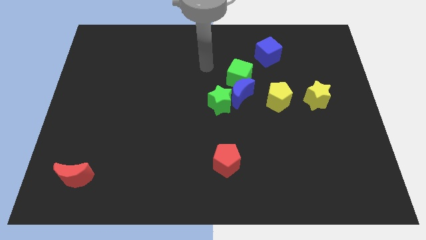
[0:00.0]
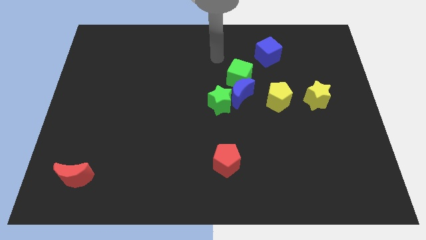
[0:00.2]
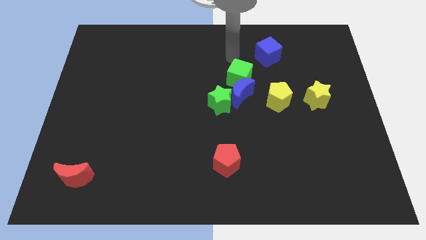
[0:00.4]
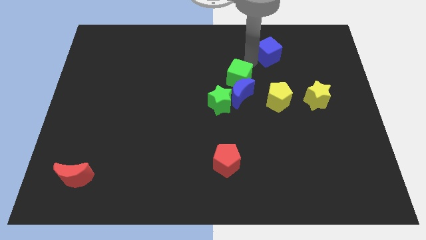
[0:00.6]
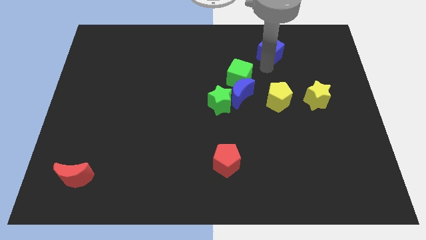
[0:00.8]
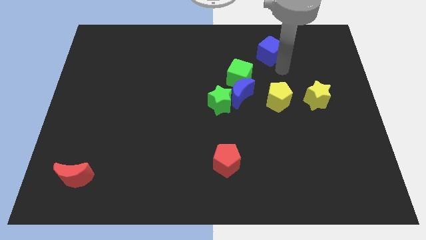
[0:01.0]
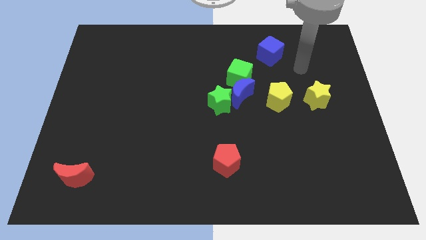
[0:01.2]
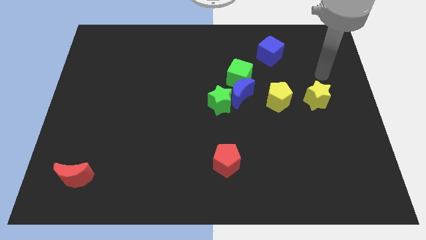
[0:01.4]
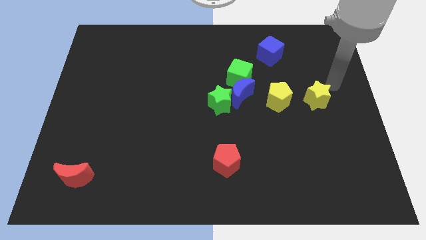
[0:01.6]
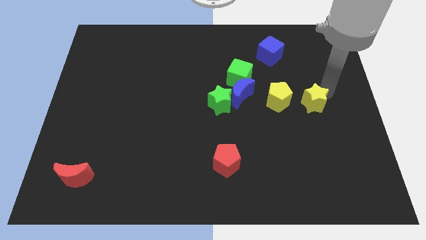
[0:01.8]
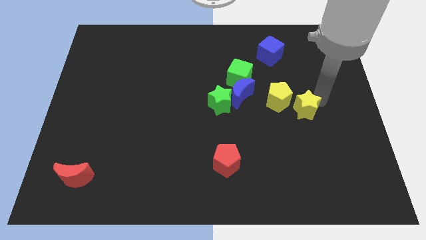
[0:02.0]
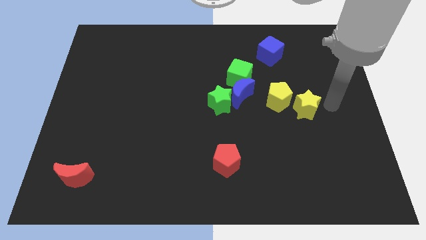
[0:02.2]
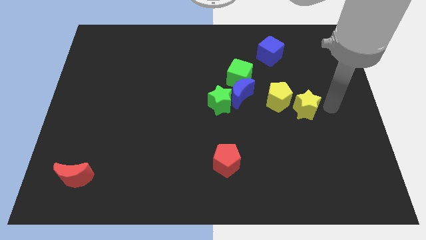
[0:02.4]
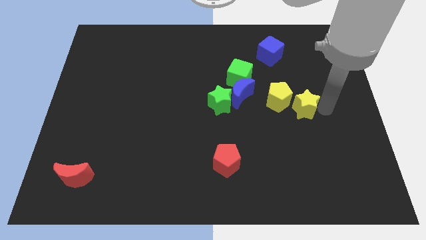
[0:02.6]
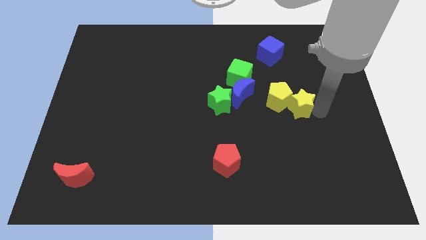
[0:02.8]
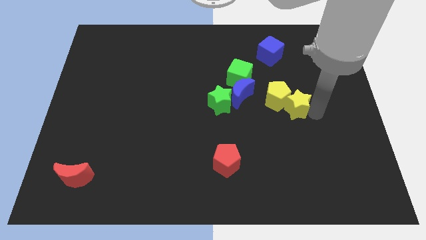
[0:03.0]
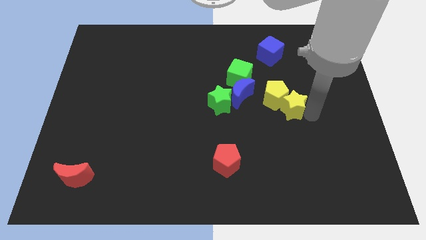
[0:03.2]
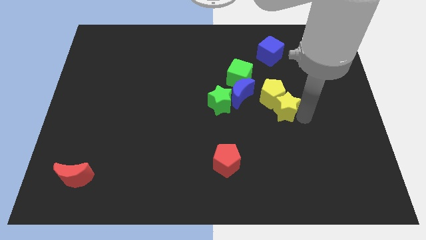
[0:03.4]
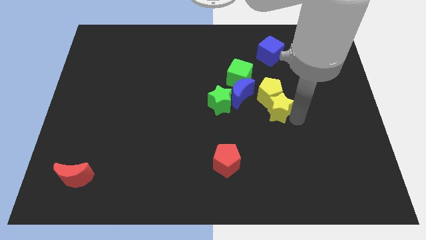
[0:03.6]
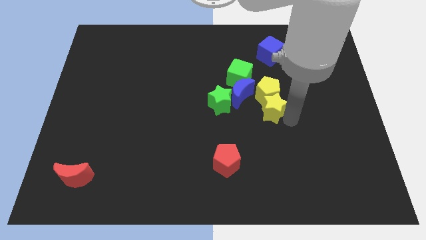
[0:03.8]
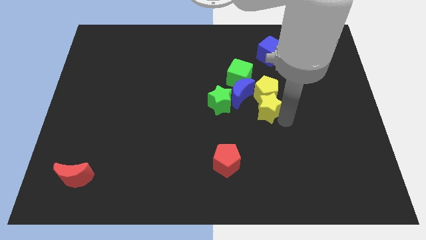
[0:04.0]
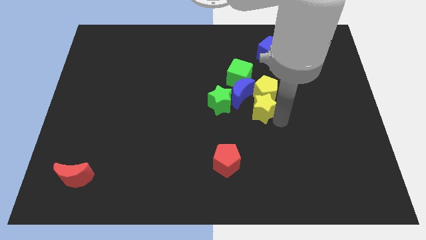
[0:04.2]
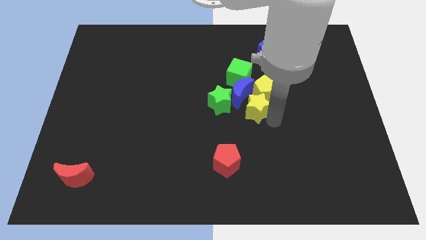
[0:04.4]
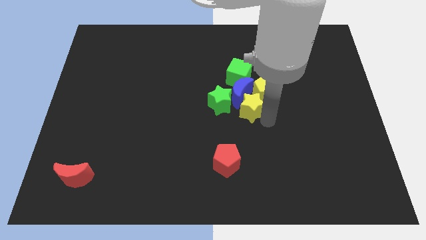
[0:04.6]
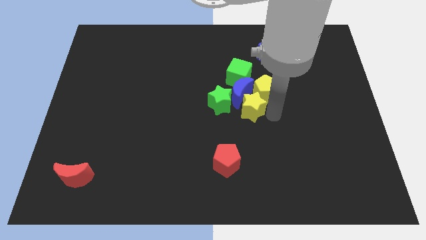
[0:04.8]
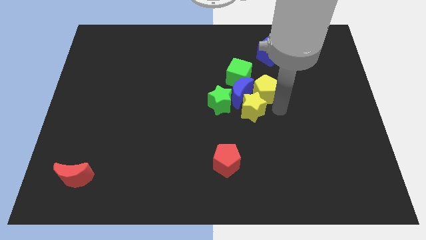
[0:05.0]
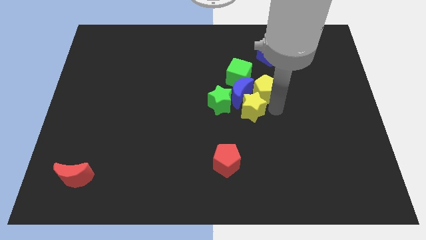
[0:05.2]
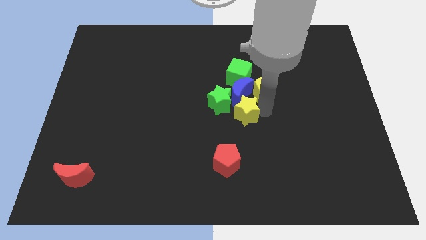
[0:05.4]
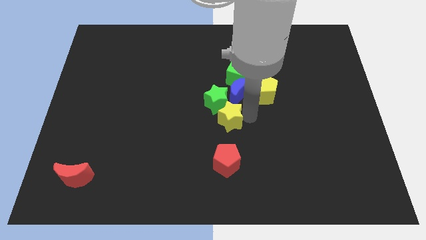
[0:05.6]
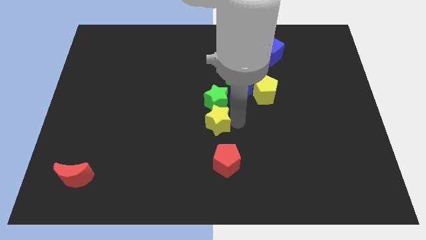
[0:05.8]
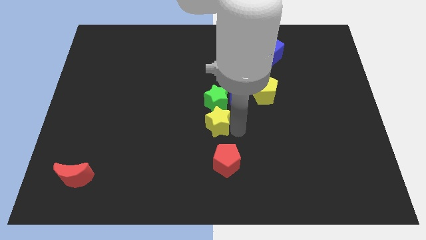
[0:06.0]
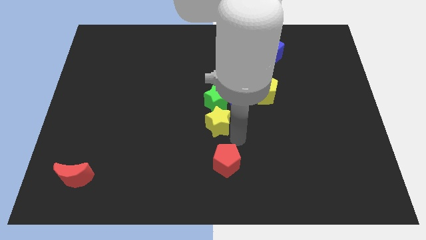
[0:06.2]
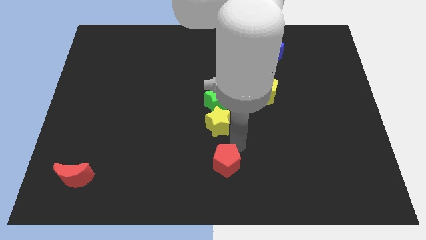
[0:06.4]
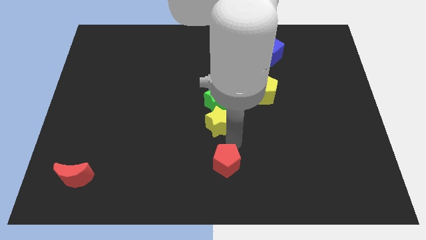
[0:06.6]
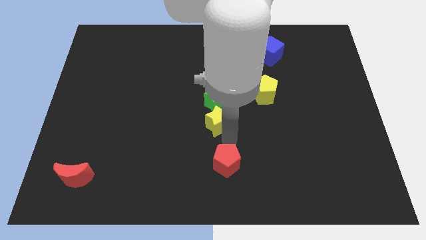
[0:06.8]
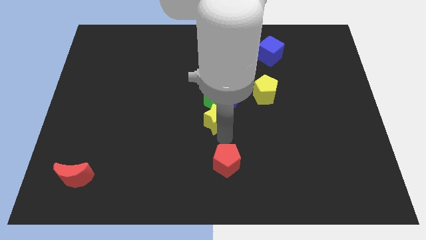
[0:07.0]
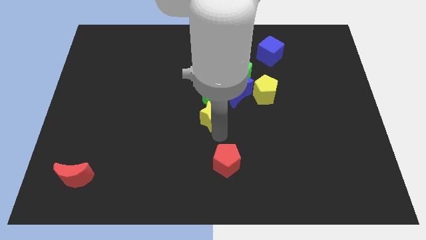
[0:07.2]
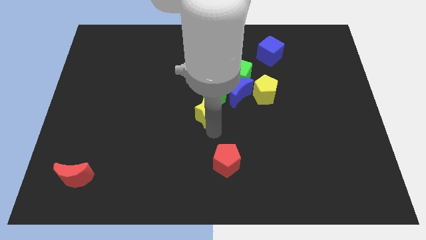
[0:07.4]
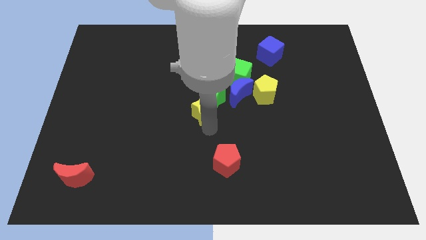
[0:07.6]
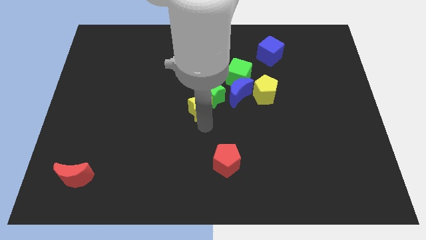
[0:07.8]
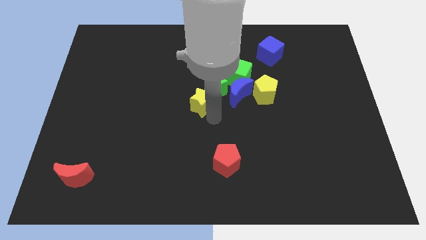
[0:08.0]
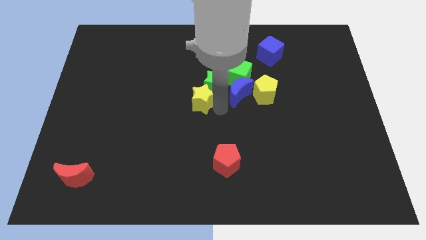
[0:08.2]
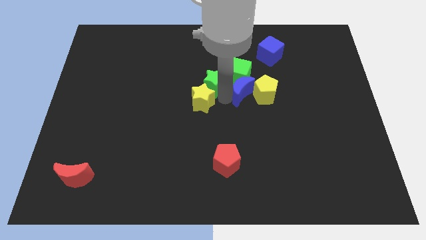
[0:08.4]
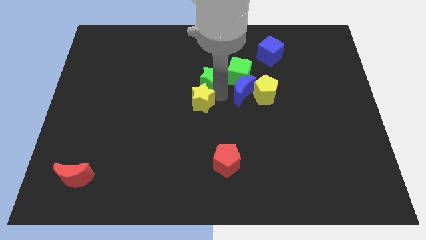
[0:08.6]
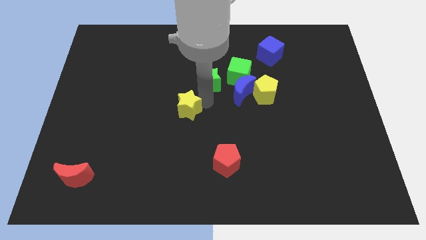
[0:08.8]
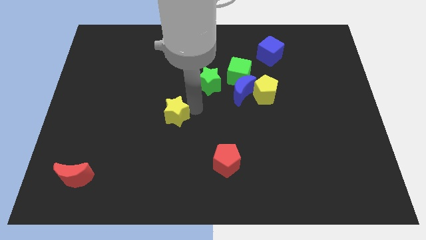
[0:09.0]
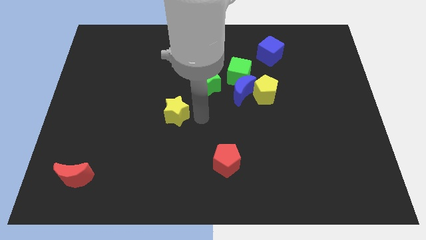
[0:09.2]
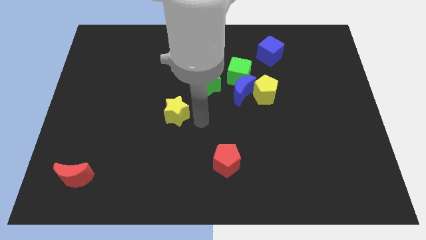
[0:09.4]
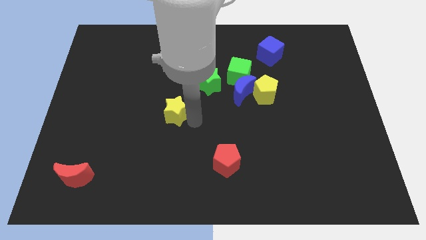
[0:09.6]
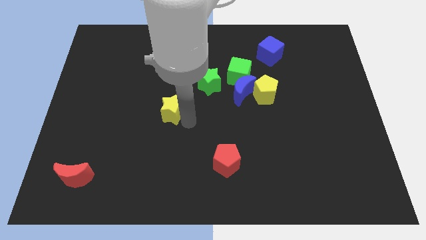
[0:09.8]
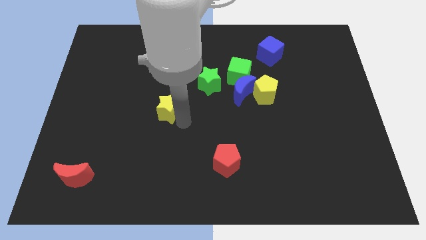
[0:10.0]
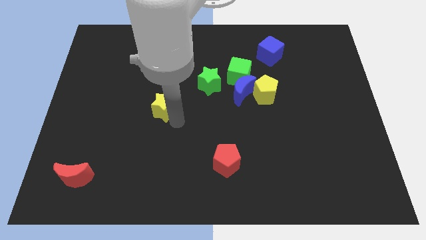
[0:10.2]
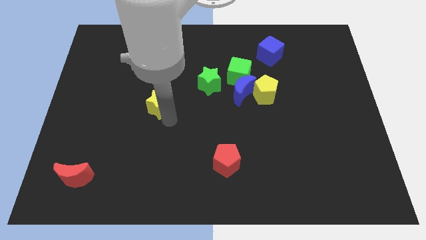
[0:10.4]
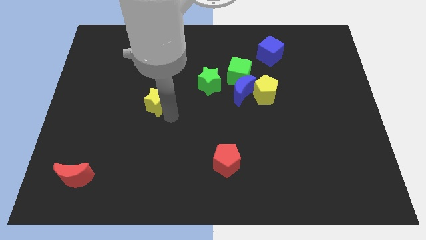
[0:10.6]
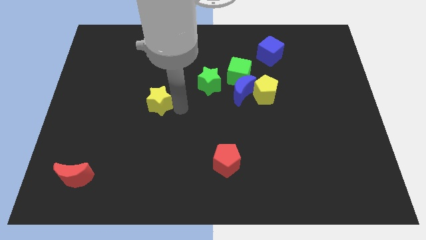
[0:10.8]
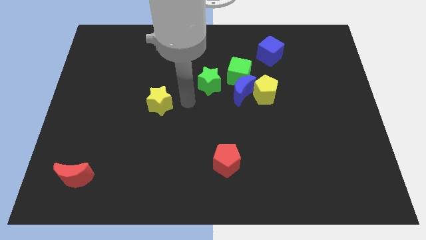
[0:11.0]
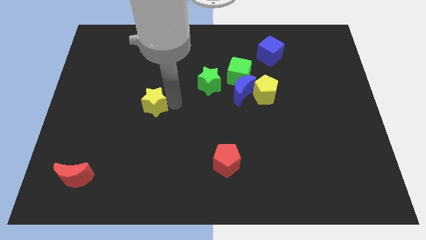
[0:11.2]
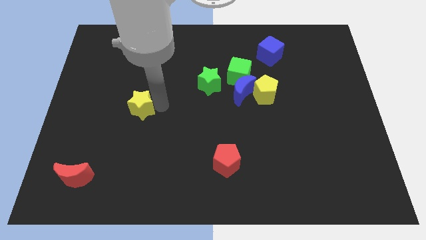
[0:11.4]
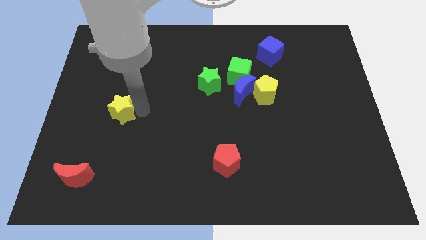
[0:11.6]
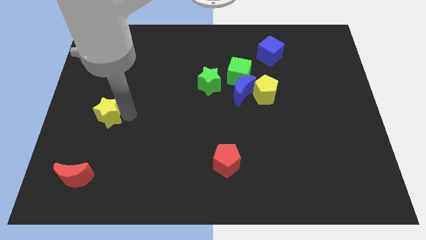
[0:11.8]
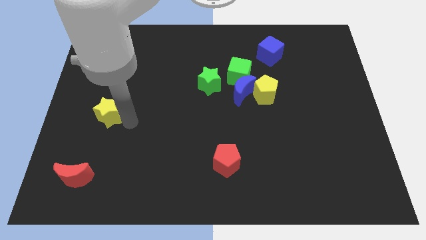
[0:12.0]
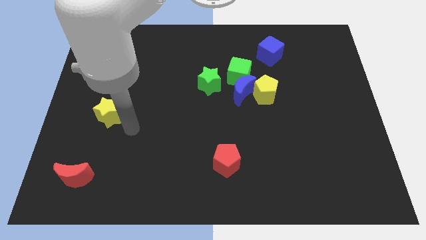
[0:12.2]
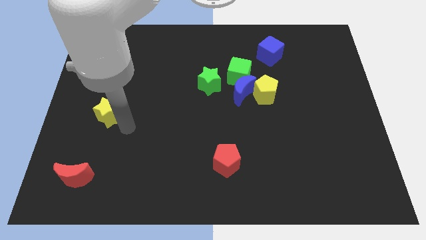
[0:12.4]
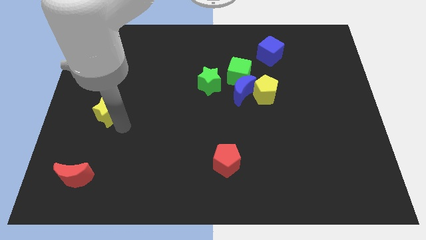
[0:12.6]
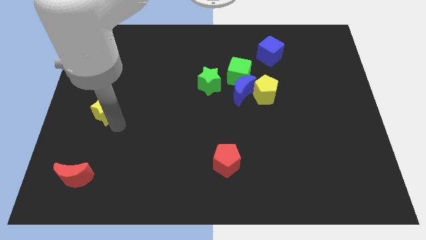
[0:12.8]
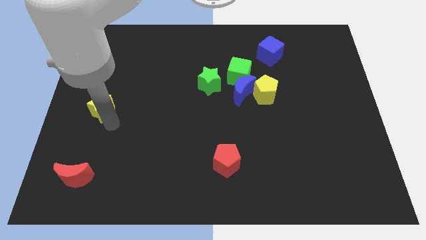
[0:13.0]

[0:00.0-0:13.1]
move the yellow star to the left side
